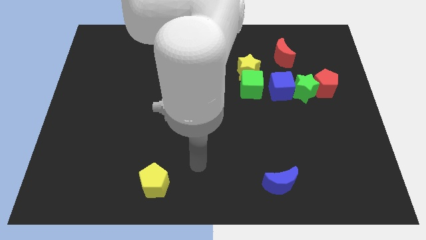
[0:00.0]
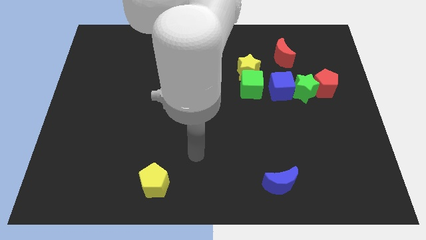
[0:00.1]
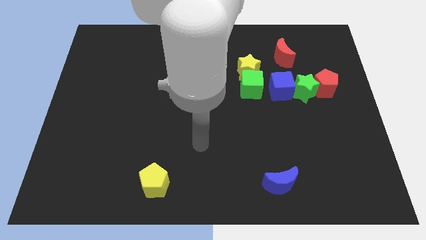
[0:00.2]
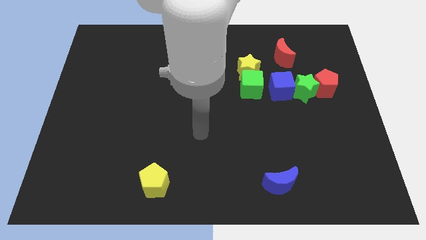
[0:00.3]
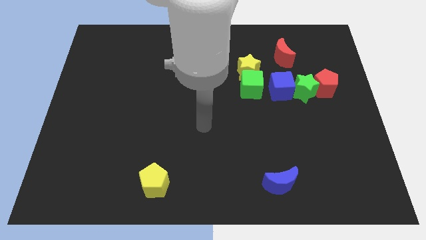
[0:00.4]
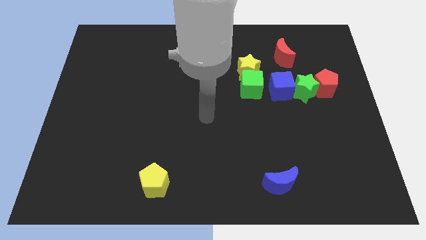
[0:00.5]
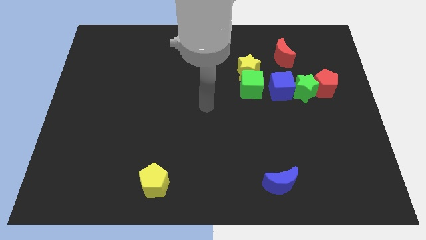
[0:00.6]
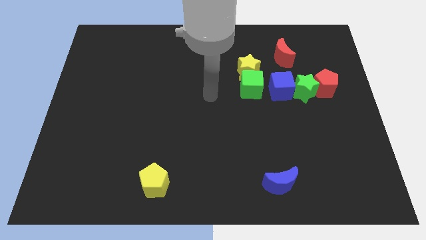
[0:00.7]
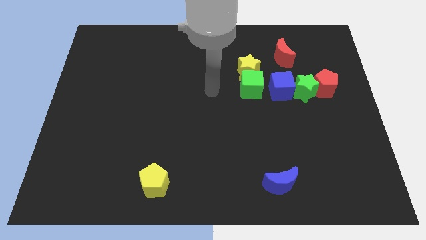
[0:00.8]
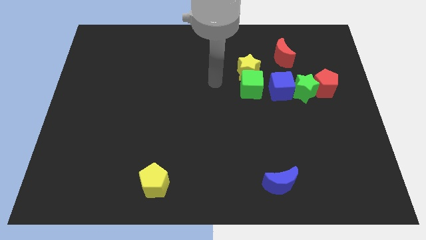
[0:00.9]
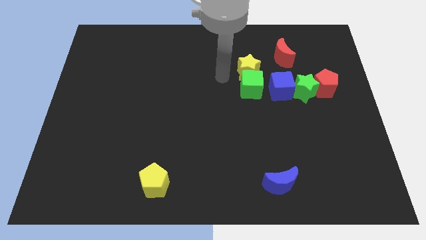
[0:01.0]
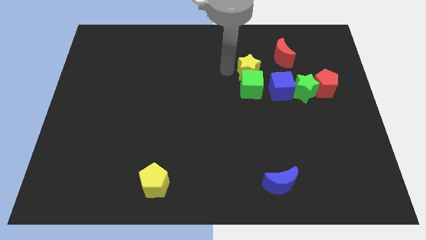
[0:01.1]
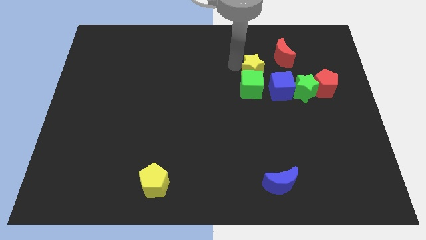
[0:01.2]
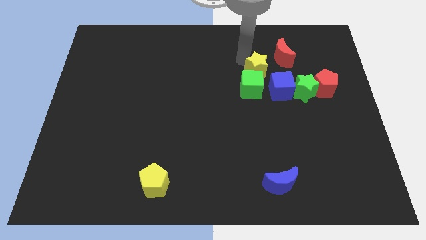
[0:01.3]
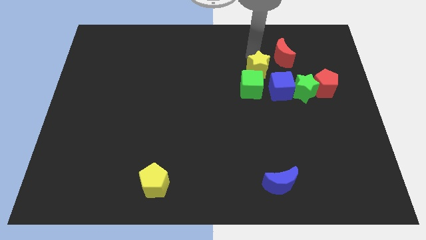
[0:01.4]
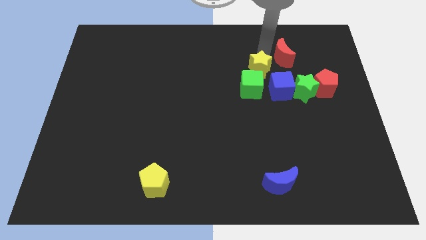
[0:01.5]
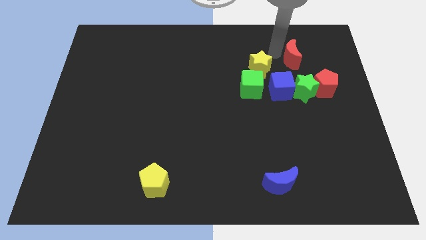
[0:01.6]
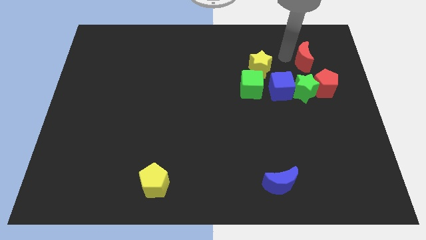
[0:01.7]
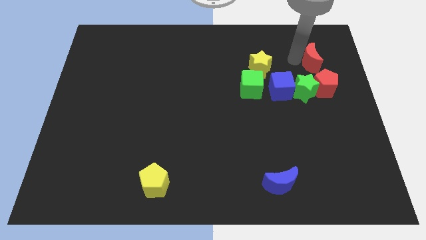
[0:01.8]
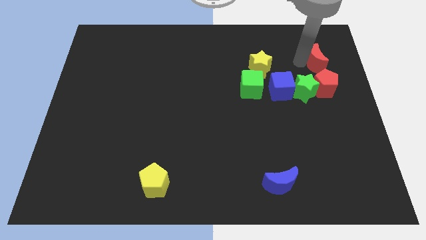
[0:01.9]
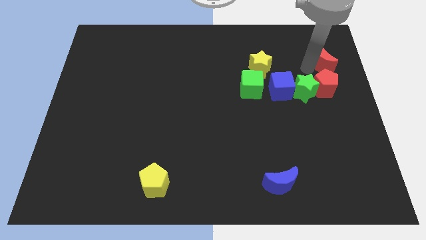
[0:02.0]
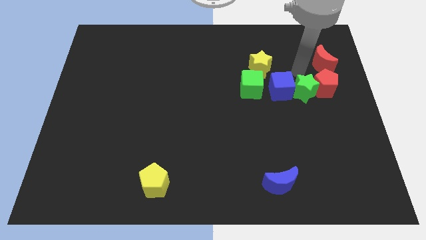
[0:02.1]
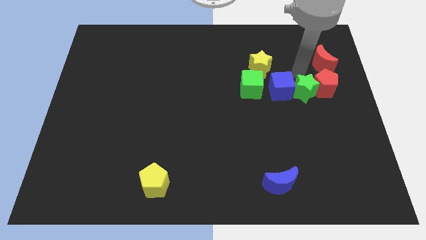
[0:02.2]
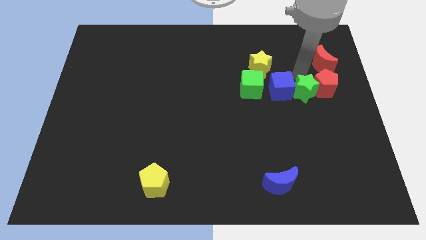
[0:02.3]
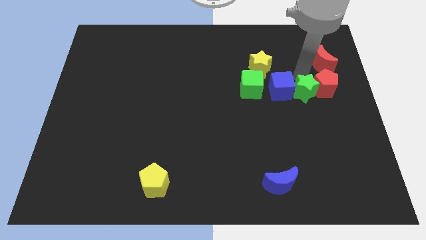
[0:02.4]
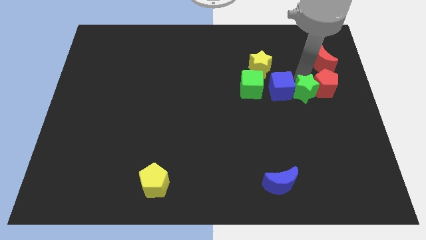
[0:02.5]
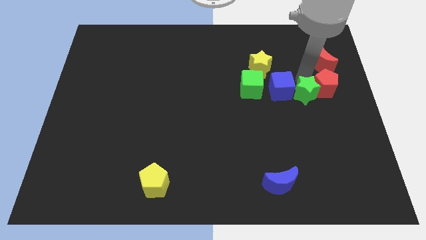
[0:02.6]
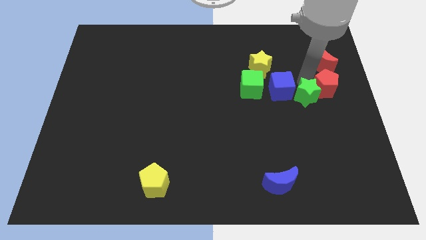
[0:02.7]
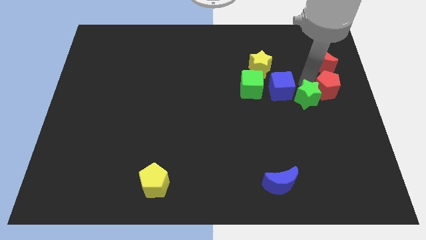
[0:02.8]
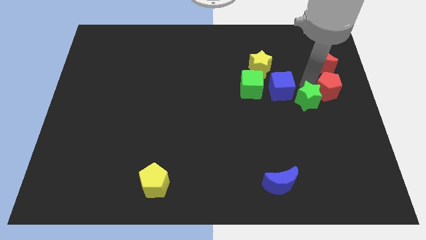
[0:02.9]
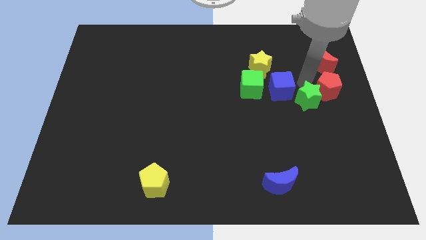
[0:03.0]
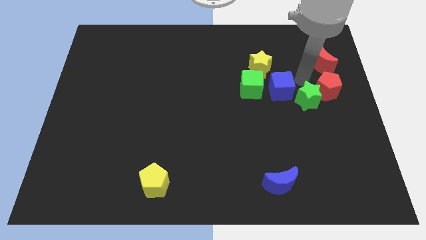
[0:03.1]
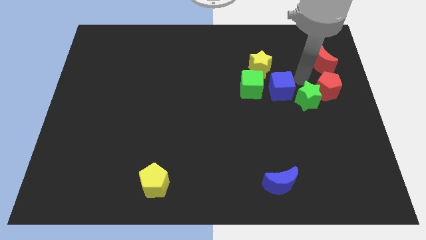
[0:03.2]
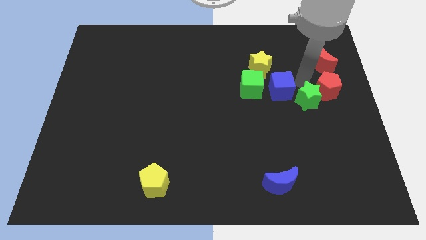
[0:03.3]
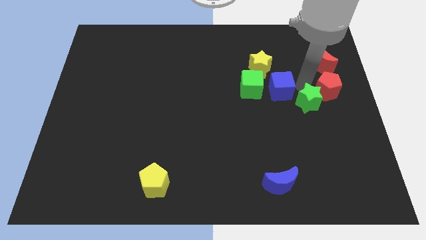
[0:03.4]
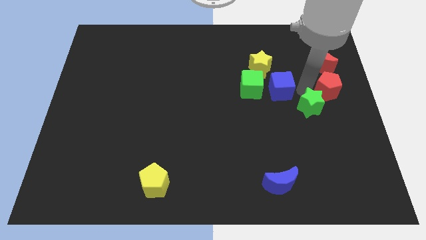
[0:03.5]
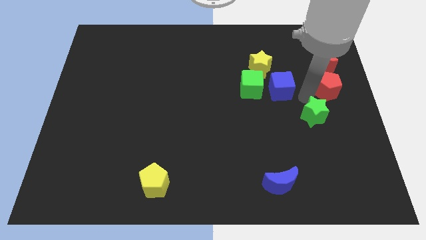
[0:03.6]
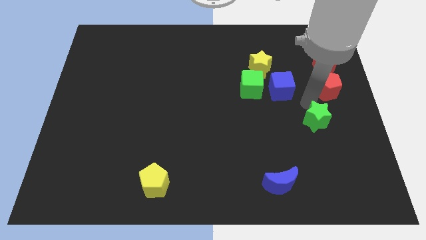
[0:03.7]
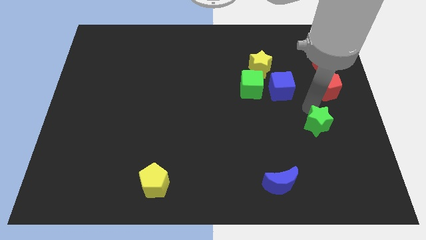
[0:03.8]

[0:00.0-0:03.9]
separate the green star from the blue cube and red pentagon

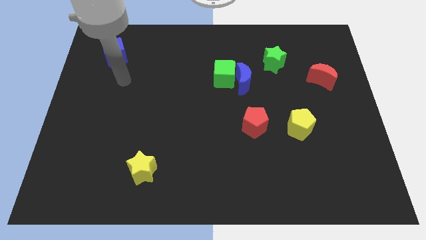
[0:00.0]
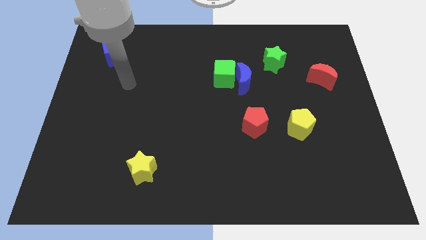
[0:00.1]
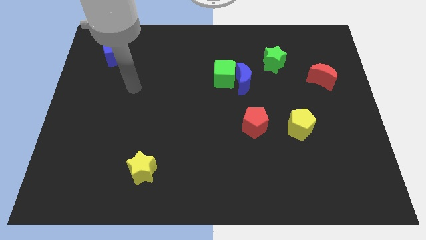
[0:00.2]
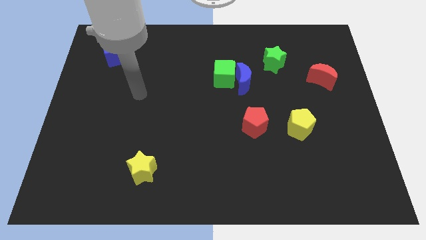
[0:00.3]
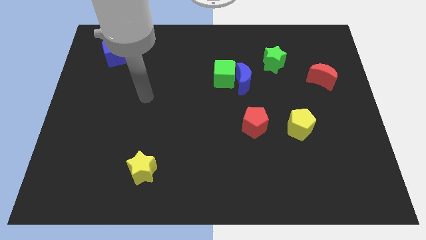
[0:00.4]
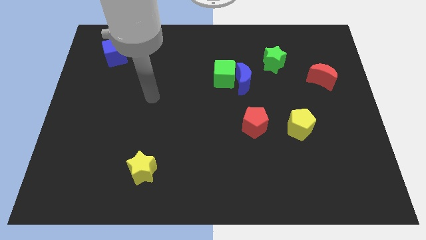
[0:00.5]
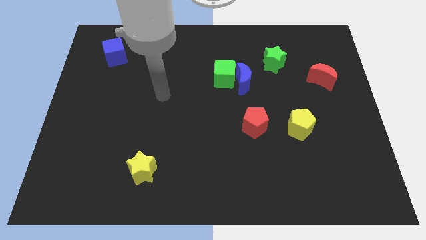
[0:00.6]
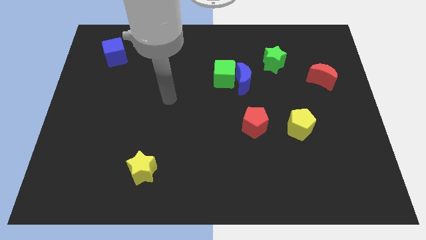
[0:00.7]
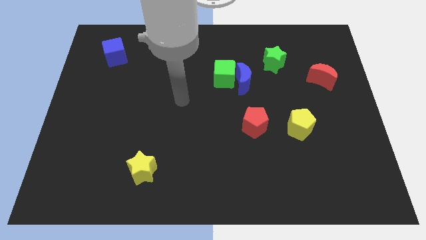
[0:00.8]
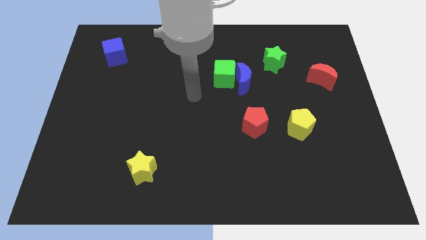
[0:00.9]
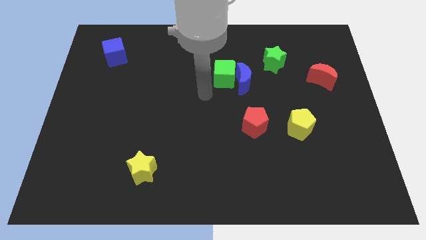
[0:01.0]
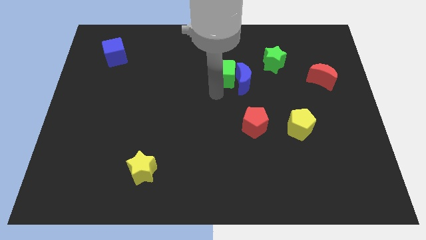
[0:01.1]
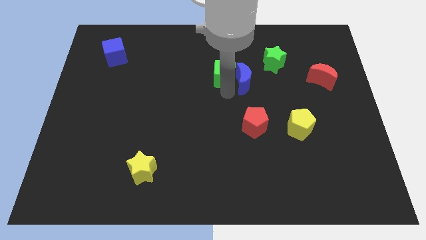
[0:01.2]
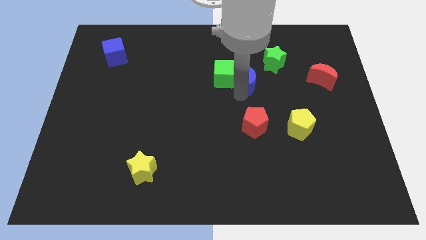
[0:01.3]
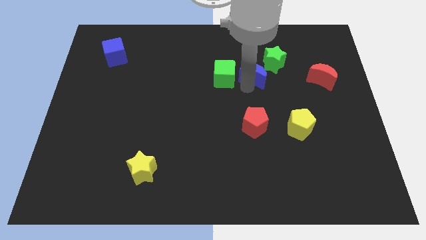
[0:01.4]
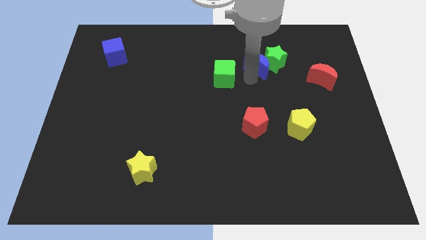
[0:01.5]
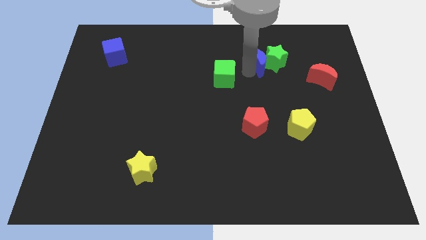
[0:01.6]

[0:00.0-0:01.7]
pull the green cube apart from the blue moon

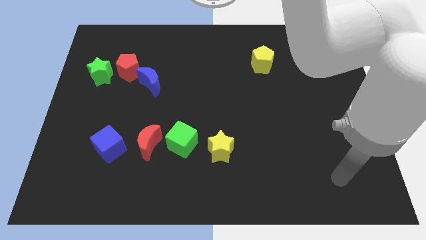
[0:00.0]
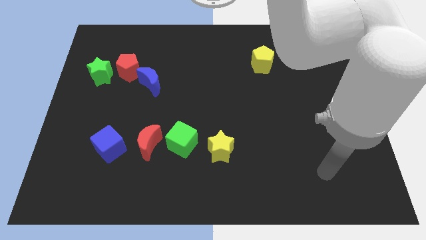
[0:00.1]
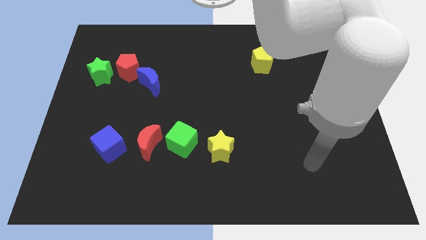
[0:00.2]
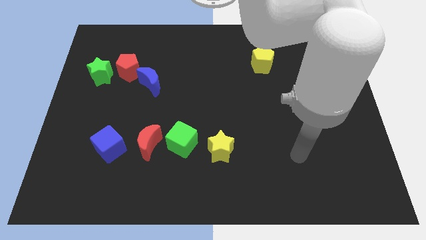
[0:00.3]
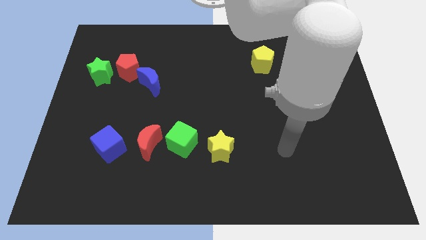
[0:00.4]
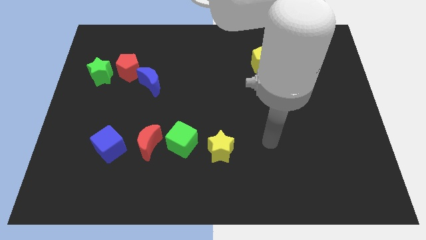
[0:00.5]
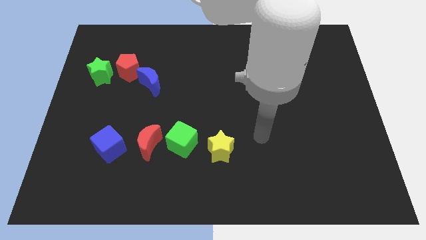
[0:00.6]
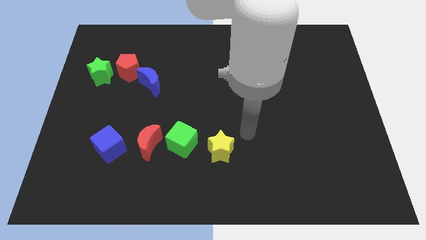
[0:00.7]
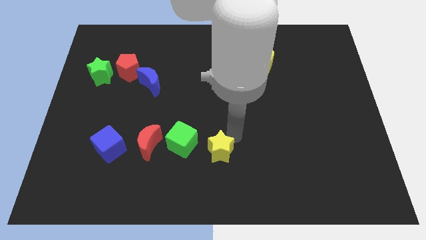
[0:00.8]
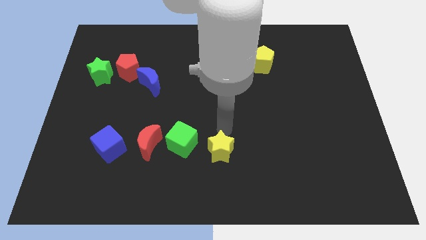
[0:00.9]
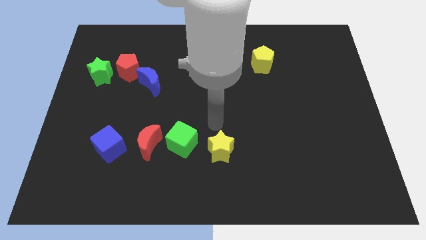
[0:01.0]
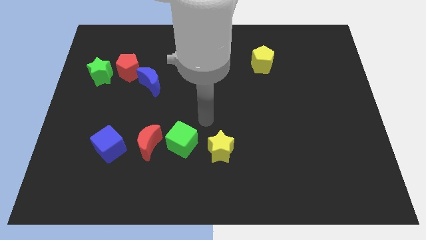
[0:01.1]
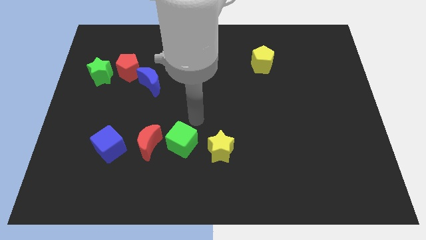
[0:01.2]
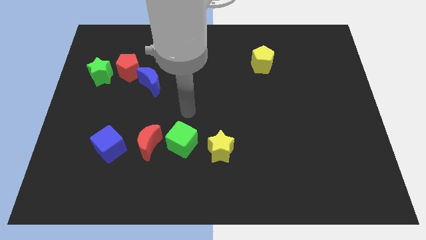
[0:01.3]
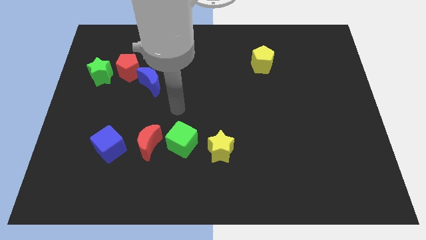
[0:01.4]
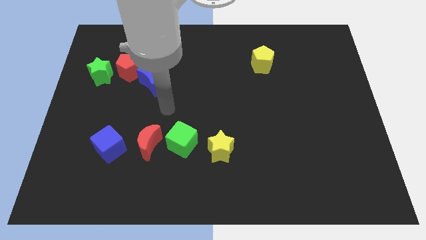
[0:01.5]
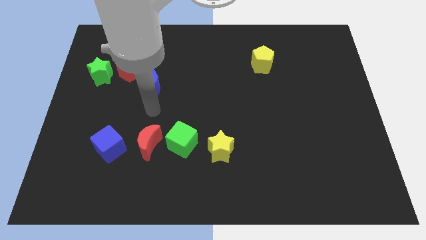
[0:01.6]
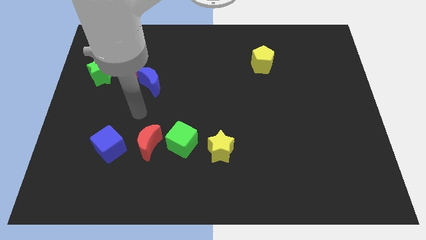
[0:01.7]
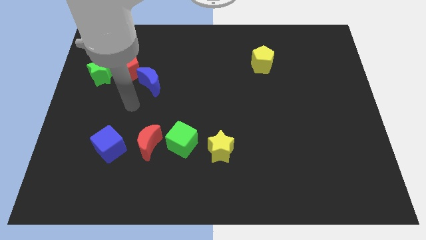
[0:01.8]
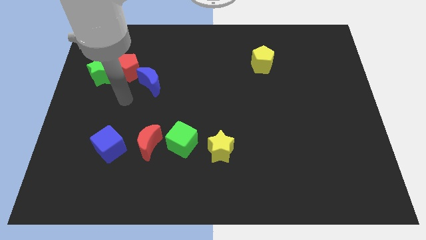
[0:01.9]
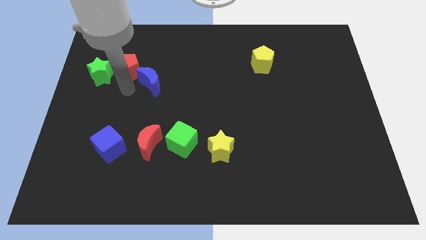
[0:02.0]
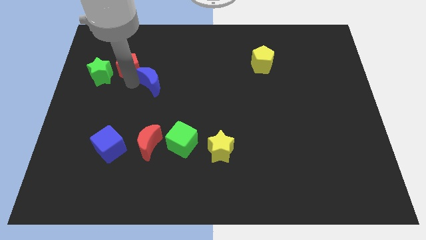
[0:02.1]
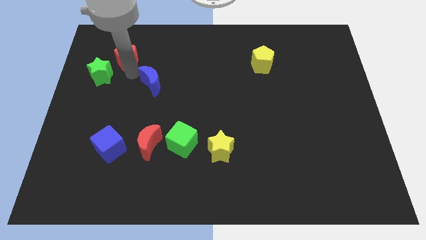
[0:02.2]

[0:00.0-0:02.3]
pull the blue moon apart from the red pentagon

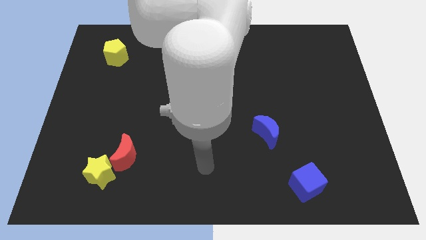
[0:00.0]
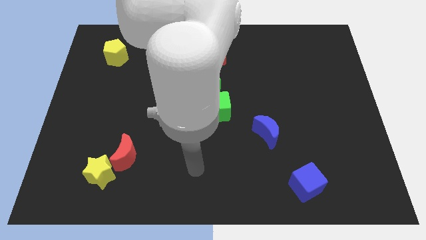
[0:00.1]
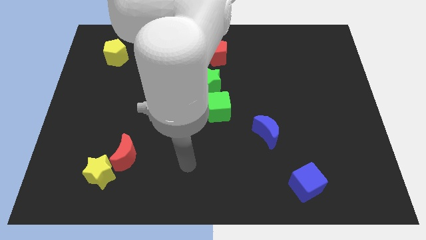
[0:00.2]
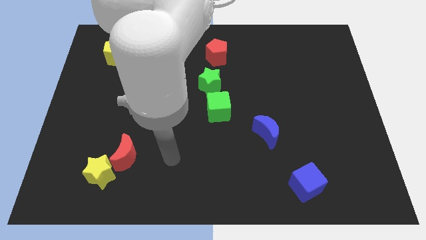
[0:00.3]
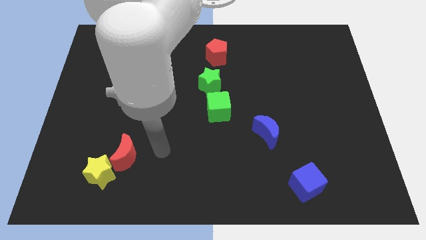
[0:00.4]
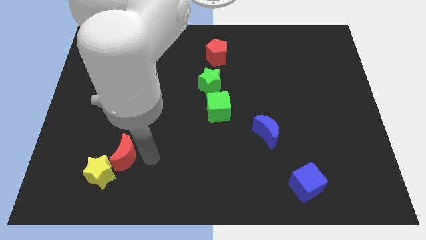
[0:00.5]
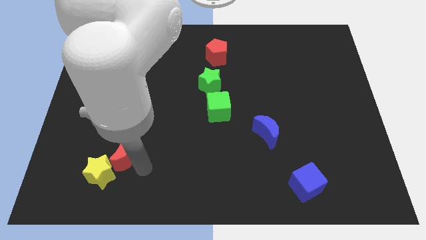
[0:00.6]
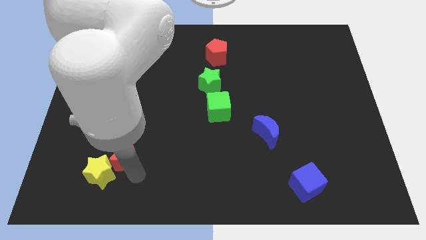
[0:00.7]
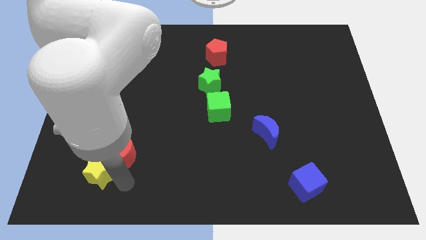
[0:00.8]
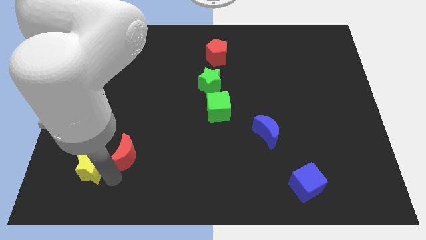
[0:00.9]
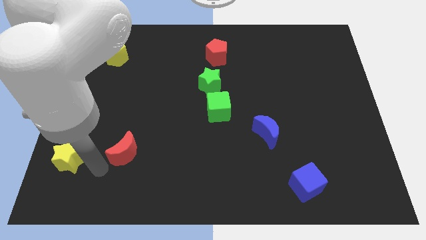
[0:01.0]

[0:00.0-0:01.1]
separate the red moon from the yellow star

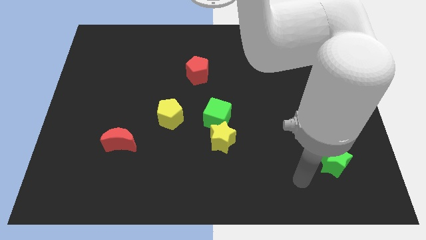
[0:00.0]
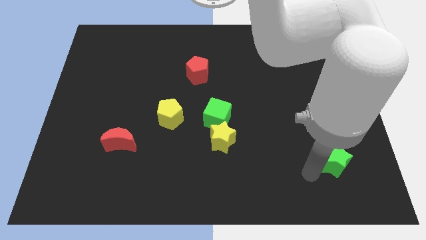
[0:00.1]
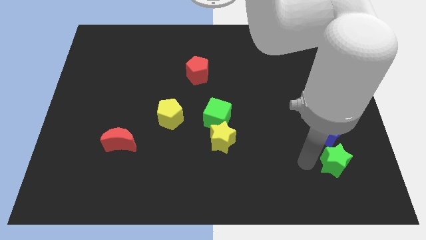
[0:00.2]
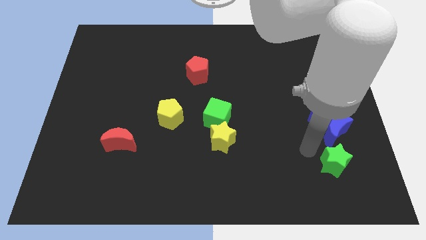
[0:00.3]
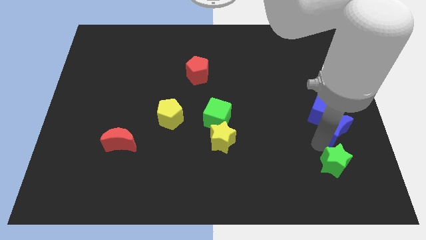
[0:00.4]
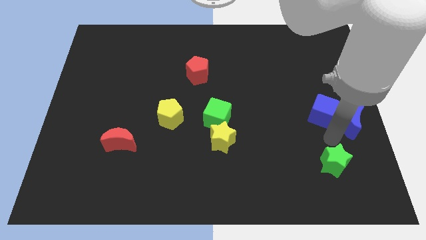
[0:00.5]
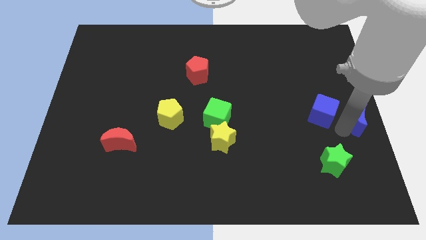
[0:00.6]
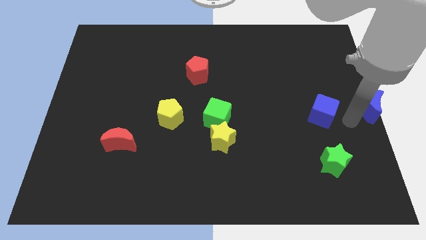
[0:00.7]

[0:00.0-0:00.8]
move the blue cube away from the blue moon
